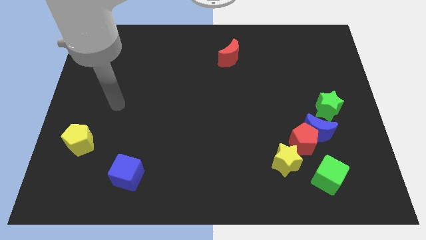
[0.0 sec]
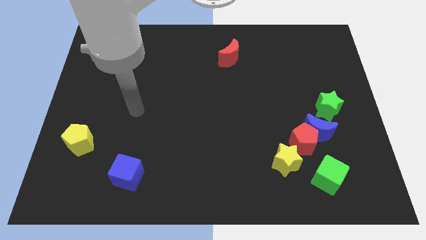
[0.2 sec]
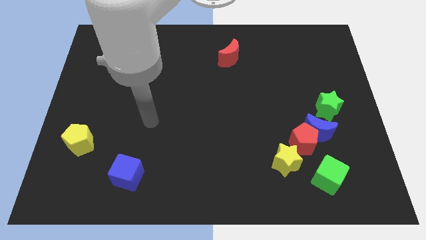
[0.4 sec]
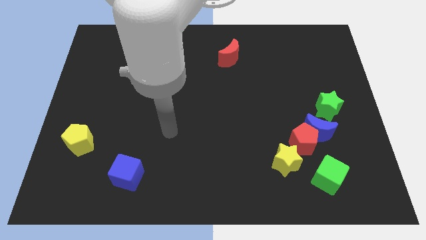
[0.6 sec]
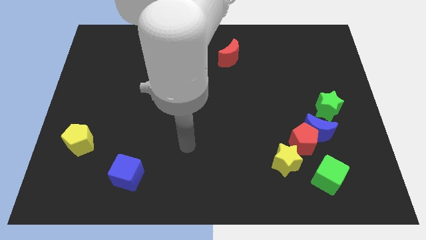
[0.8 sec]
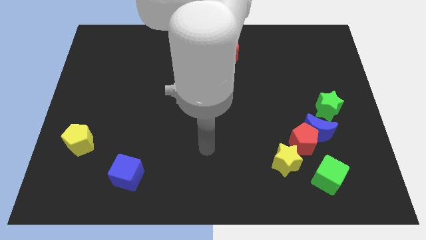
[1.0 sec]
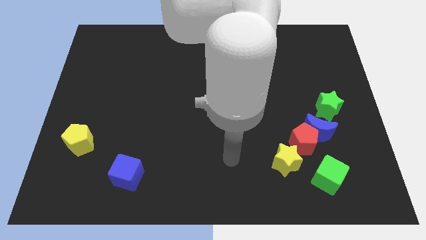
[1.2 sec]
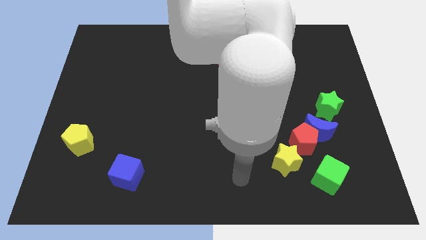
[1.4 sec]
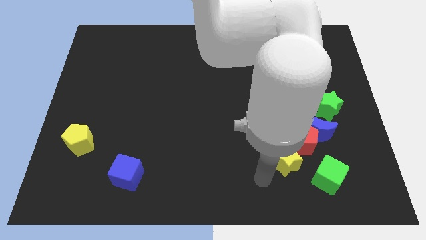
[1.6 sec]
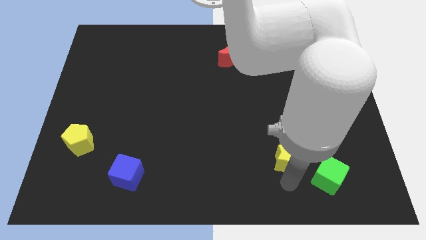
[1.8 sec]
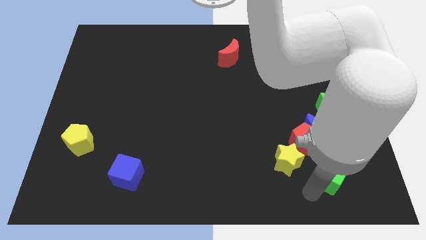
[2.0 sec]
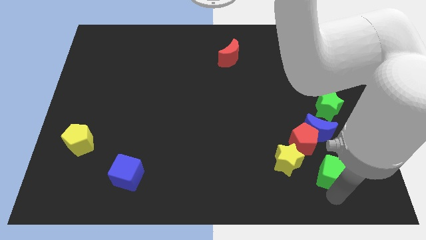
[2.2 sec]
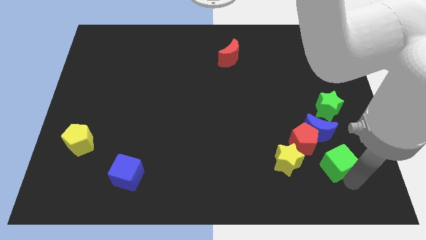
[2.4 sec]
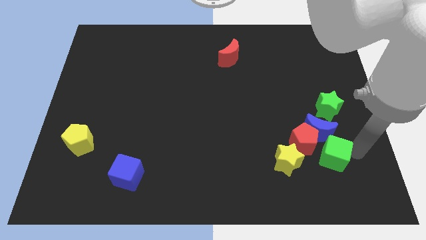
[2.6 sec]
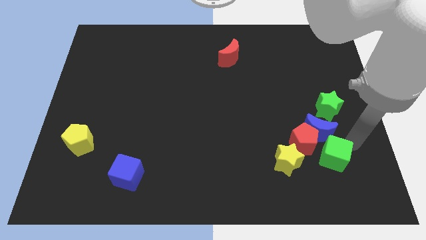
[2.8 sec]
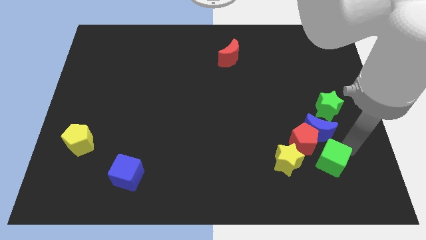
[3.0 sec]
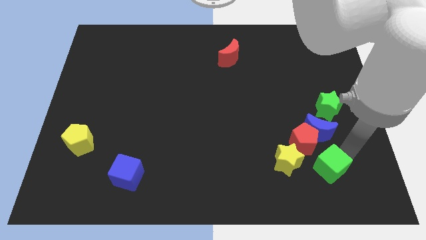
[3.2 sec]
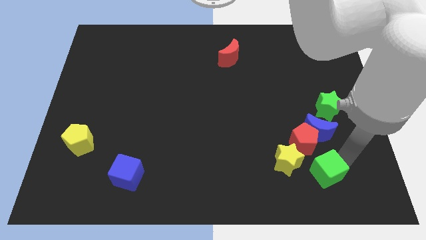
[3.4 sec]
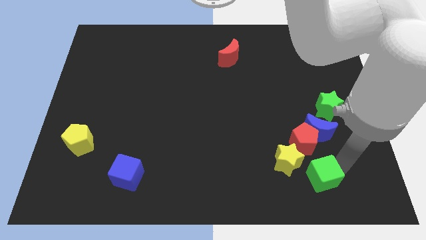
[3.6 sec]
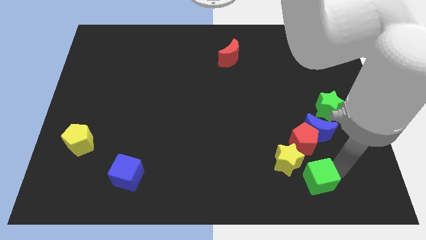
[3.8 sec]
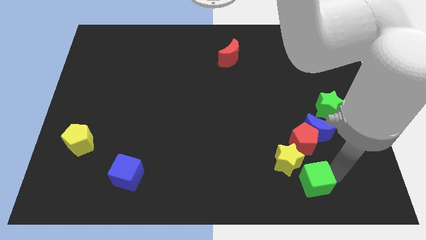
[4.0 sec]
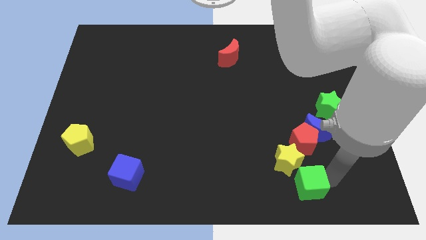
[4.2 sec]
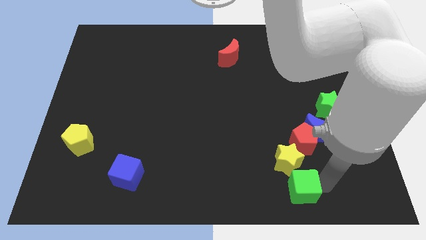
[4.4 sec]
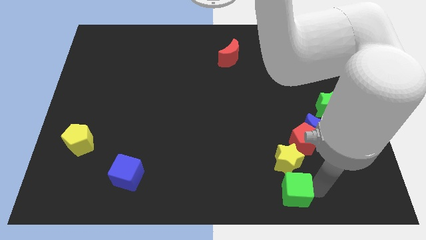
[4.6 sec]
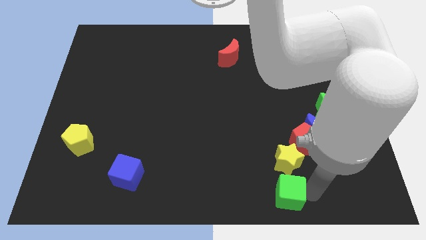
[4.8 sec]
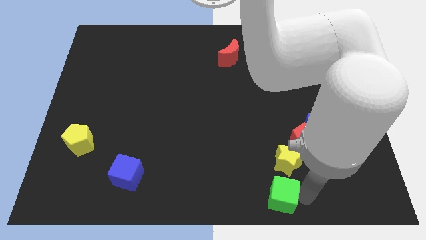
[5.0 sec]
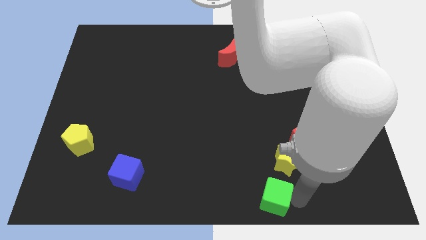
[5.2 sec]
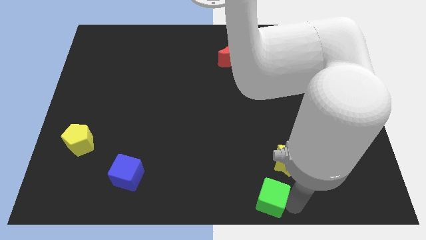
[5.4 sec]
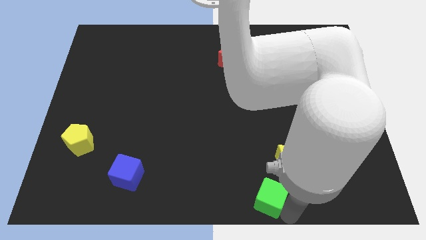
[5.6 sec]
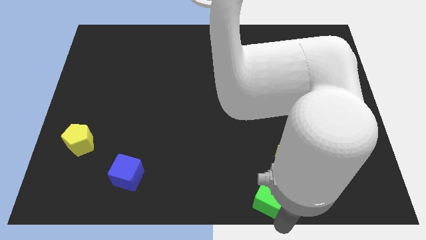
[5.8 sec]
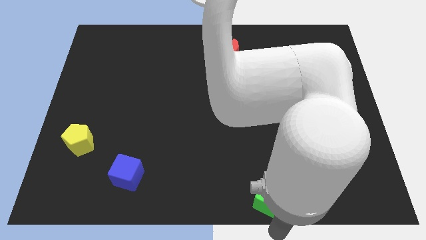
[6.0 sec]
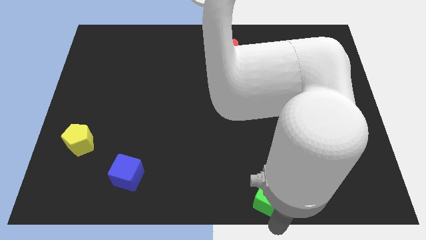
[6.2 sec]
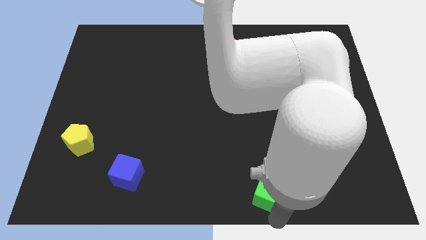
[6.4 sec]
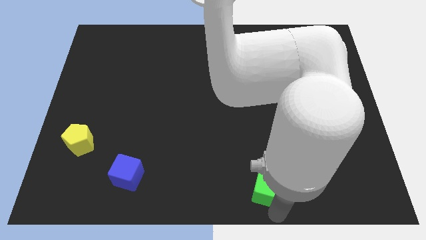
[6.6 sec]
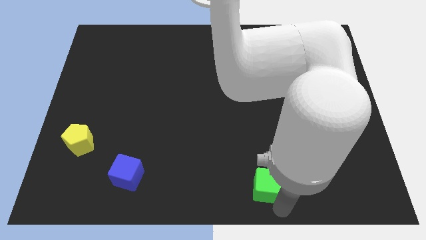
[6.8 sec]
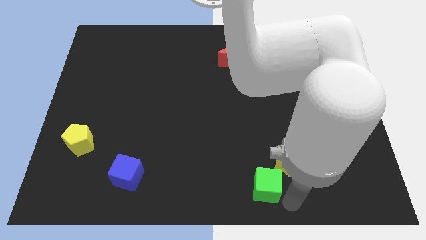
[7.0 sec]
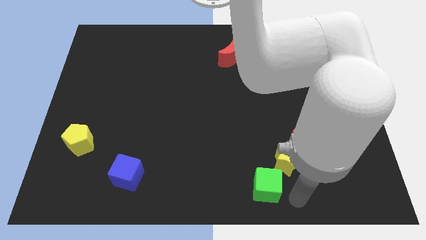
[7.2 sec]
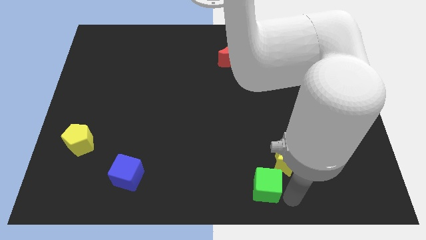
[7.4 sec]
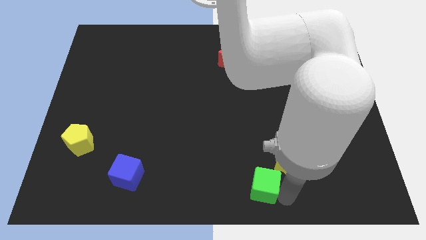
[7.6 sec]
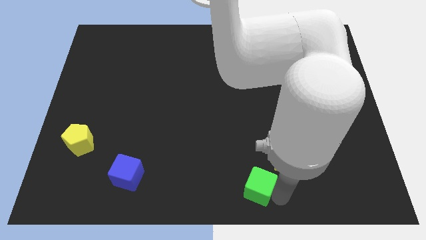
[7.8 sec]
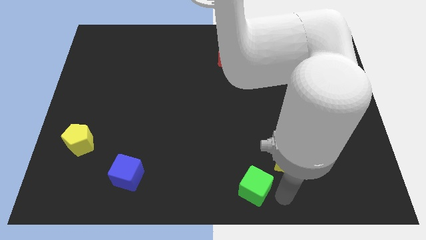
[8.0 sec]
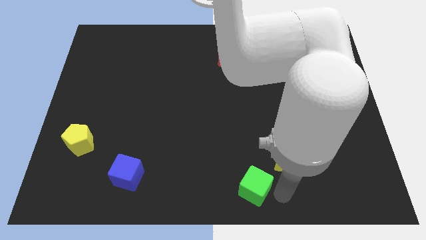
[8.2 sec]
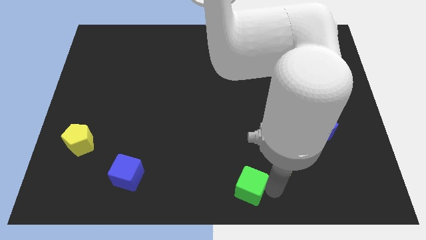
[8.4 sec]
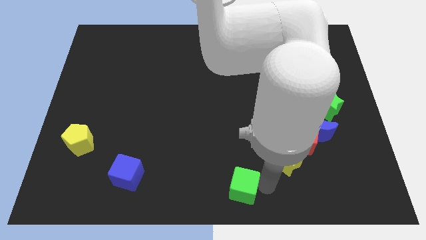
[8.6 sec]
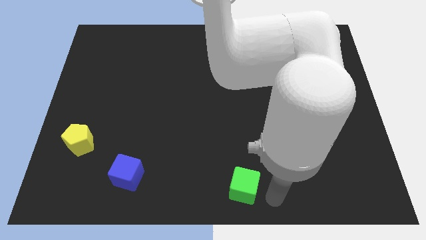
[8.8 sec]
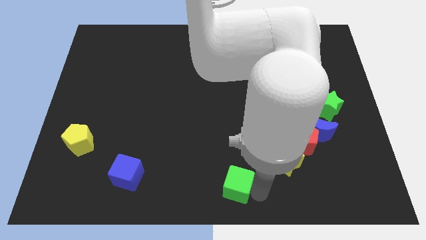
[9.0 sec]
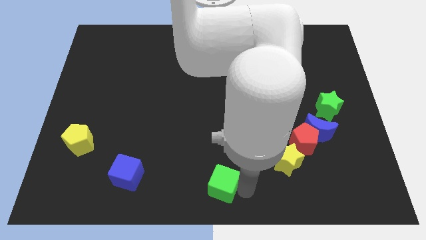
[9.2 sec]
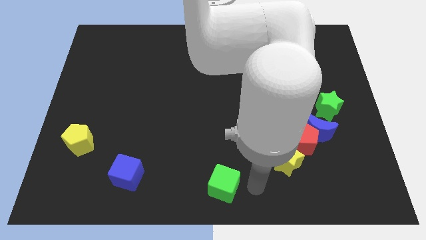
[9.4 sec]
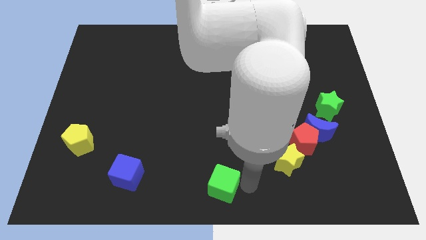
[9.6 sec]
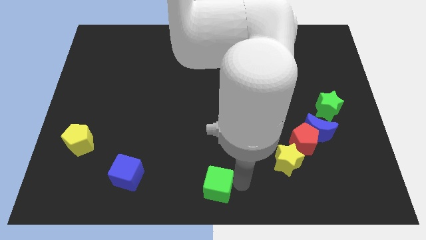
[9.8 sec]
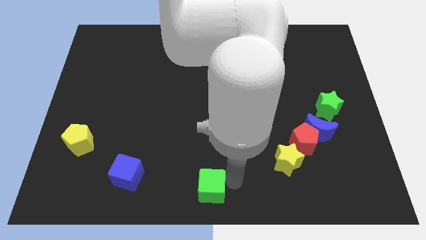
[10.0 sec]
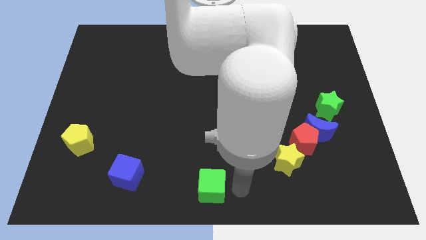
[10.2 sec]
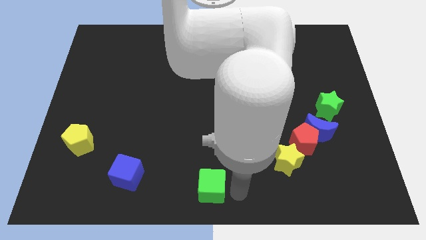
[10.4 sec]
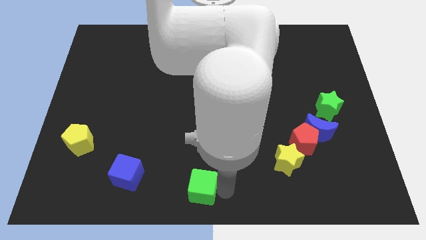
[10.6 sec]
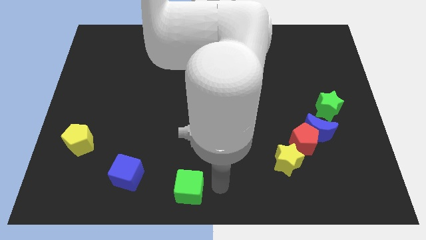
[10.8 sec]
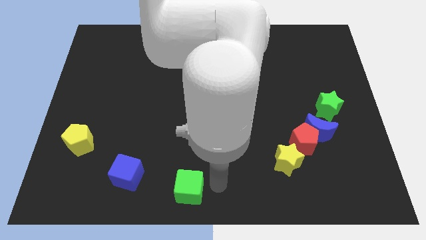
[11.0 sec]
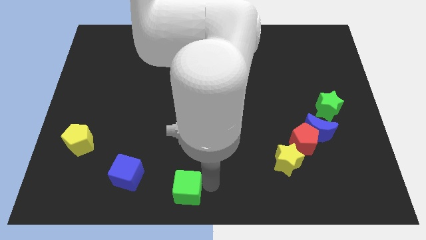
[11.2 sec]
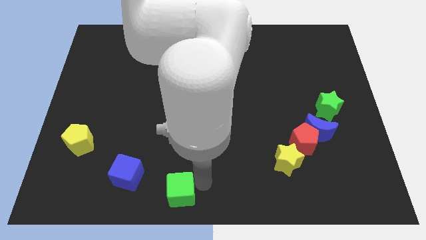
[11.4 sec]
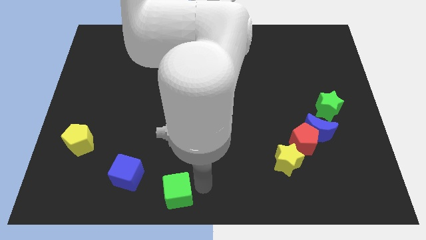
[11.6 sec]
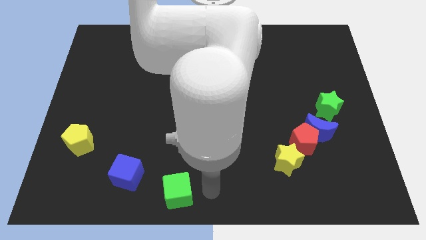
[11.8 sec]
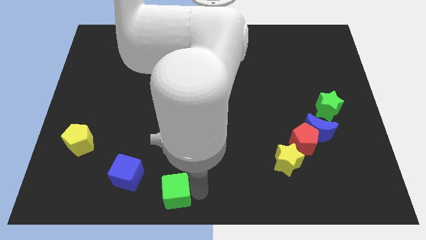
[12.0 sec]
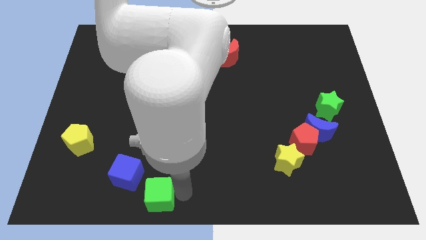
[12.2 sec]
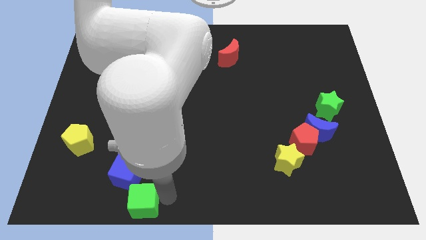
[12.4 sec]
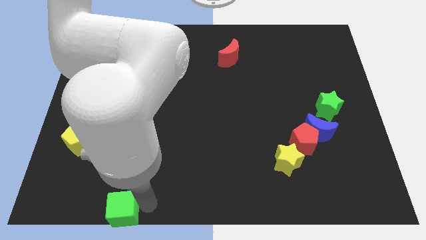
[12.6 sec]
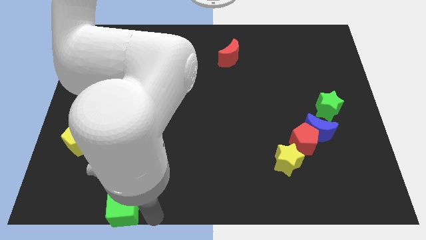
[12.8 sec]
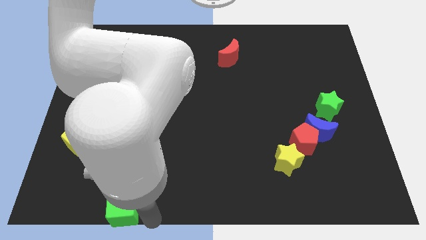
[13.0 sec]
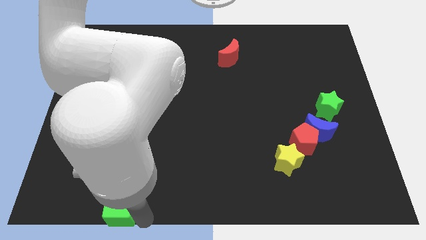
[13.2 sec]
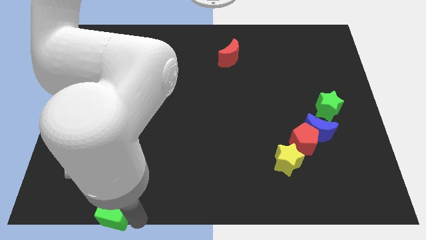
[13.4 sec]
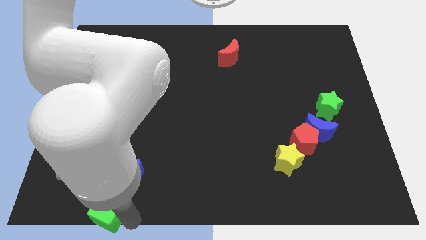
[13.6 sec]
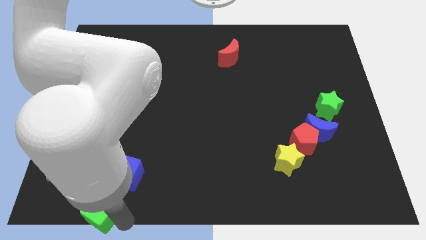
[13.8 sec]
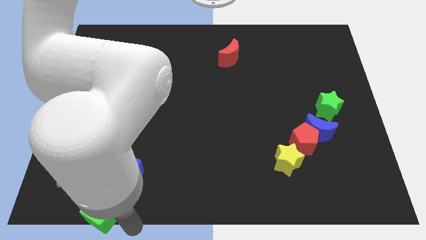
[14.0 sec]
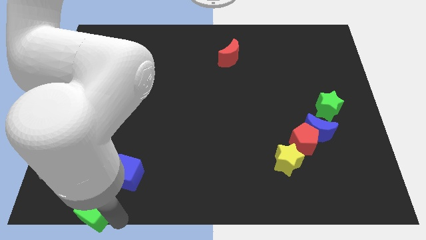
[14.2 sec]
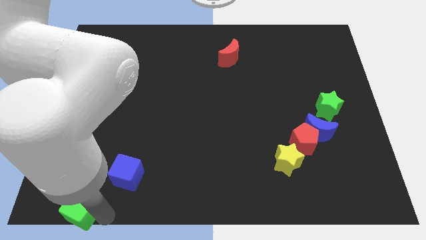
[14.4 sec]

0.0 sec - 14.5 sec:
move the green cube to the bottom left of the board
